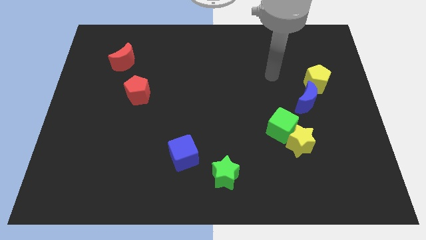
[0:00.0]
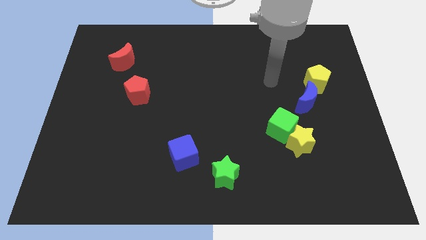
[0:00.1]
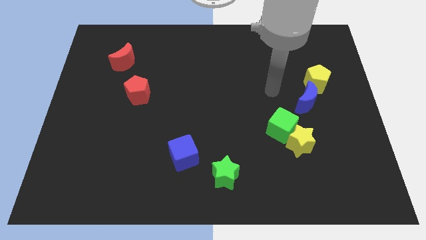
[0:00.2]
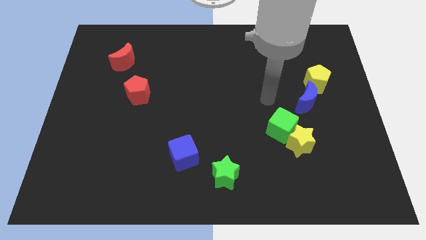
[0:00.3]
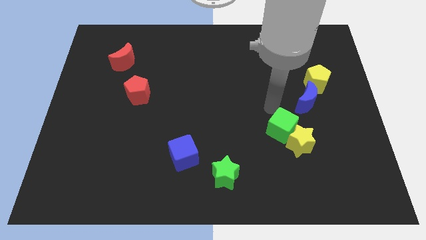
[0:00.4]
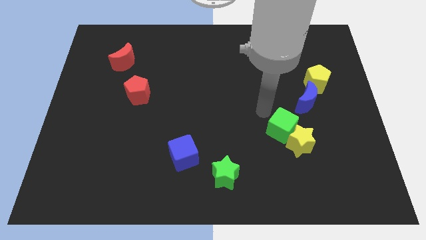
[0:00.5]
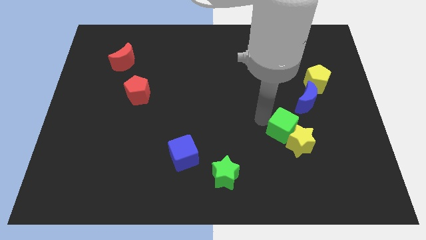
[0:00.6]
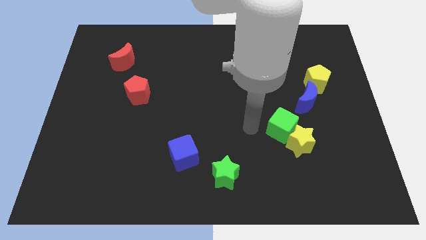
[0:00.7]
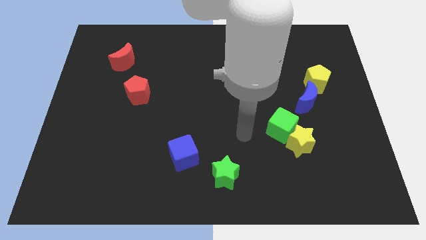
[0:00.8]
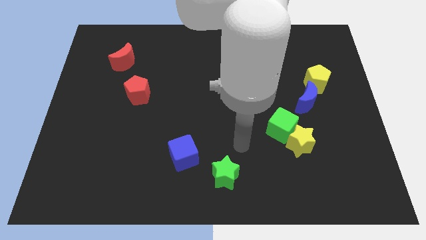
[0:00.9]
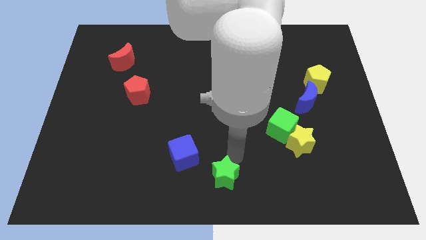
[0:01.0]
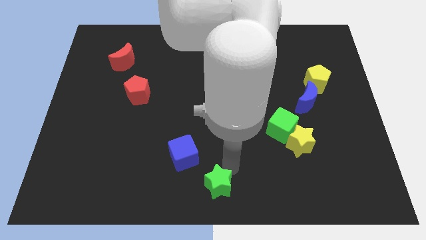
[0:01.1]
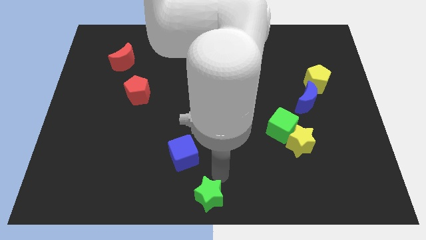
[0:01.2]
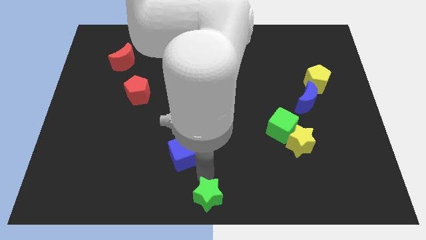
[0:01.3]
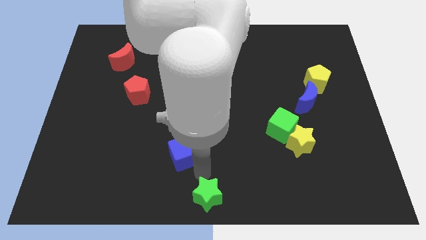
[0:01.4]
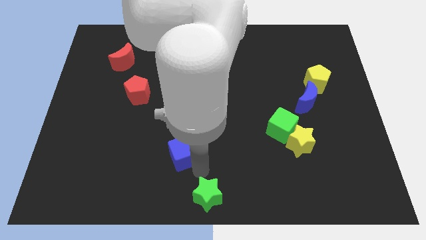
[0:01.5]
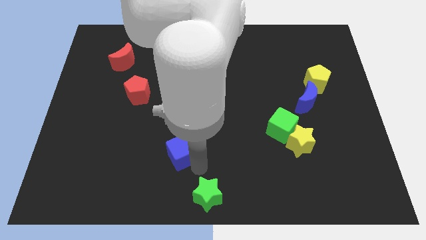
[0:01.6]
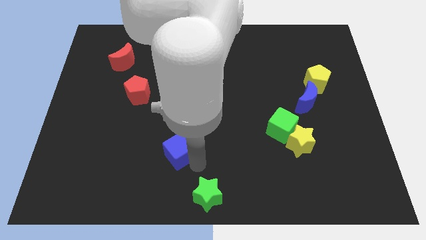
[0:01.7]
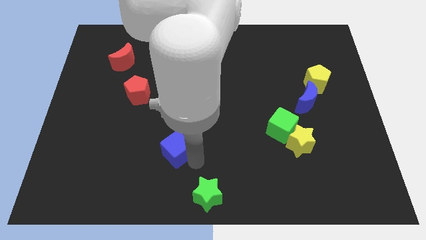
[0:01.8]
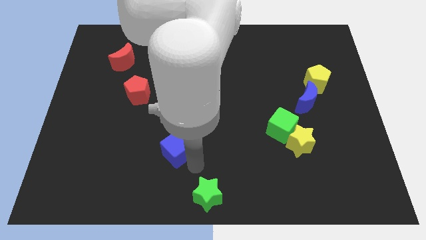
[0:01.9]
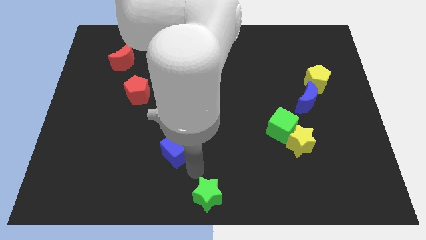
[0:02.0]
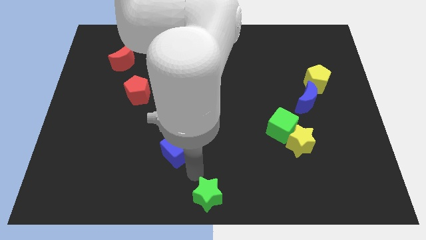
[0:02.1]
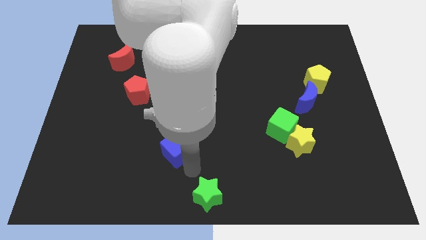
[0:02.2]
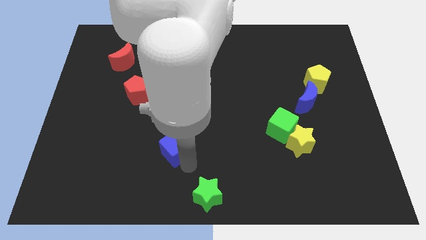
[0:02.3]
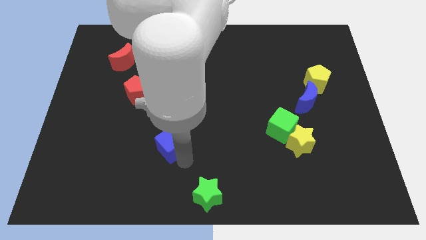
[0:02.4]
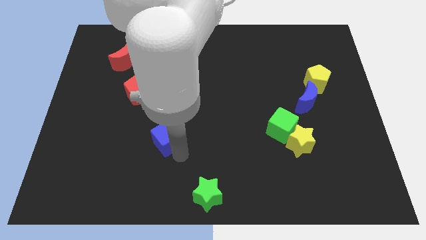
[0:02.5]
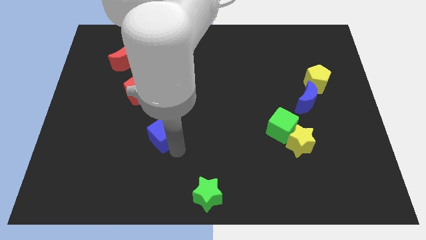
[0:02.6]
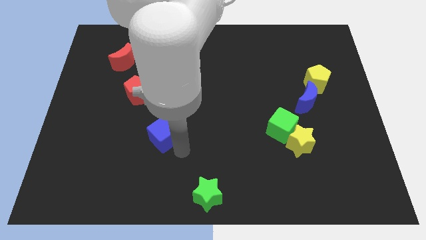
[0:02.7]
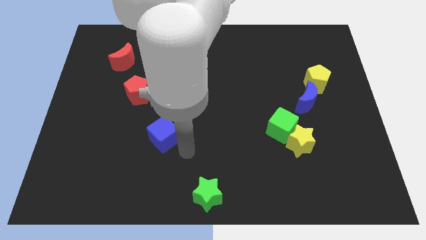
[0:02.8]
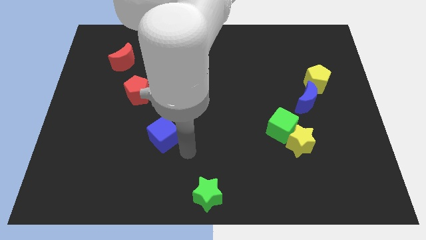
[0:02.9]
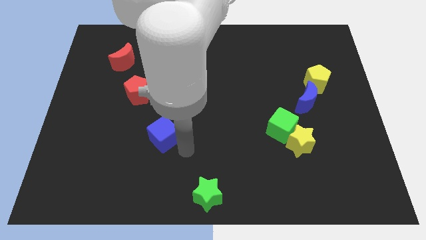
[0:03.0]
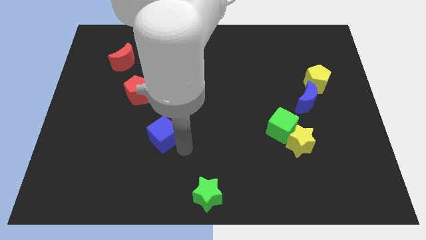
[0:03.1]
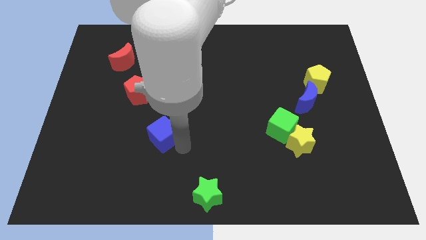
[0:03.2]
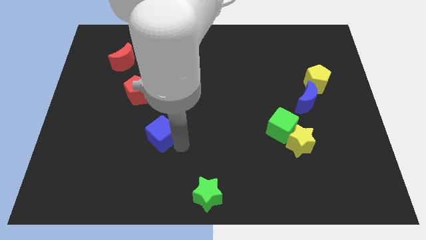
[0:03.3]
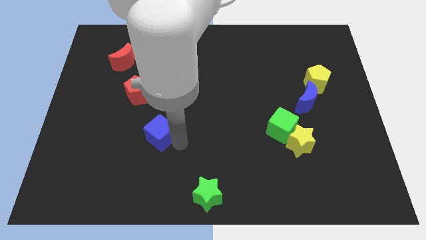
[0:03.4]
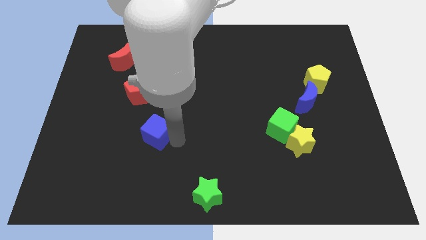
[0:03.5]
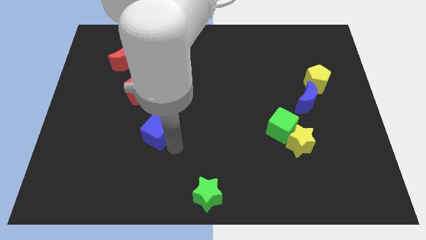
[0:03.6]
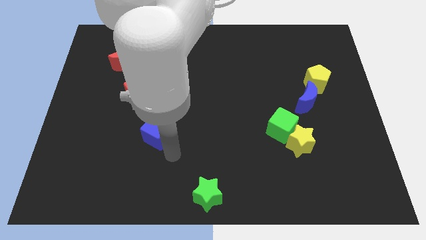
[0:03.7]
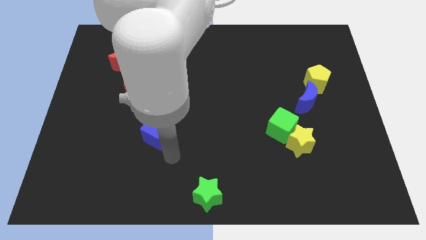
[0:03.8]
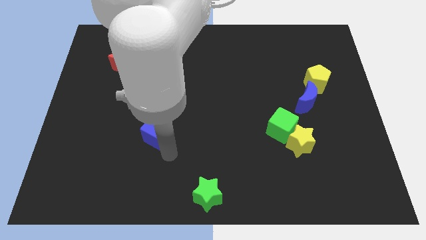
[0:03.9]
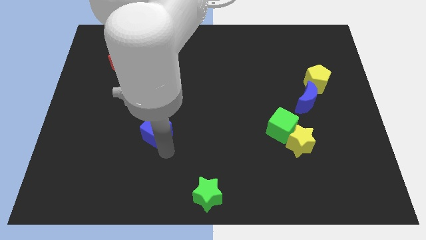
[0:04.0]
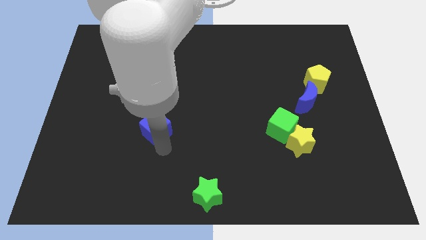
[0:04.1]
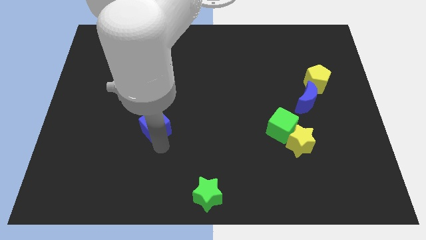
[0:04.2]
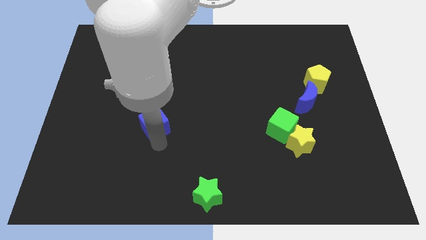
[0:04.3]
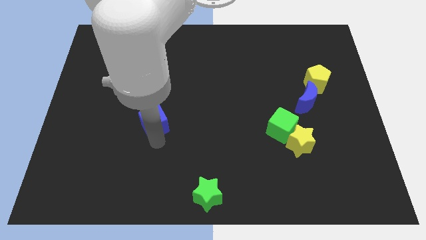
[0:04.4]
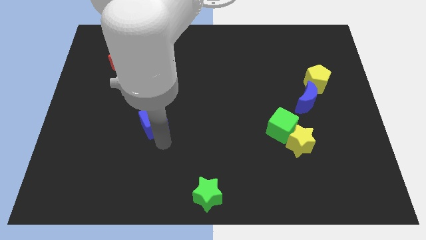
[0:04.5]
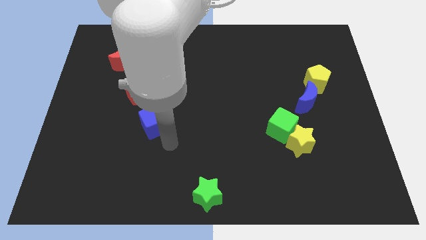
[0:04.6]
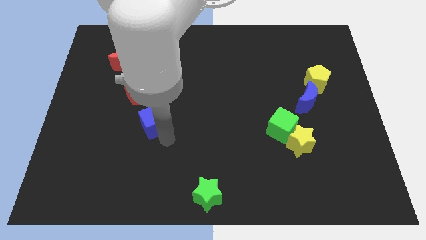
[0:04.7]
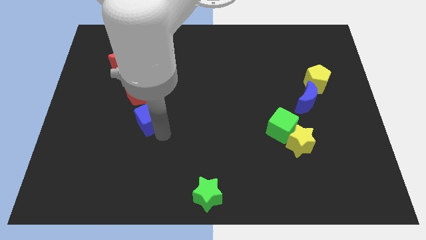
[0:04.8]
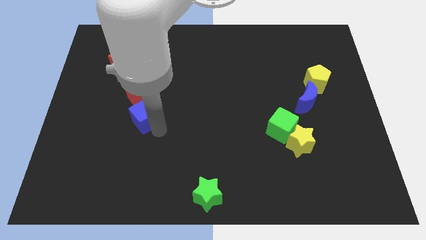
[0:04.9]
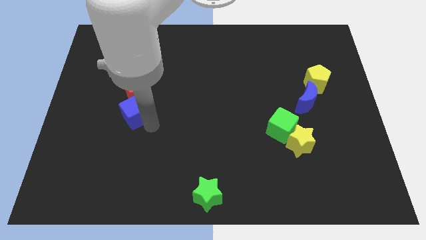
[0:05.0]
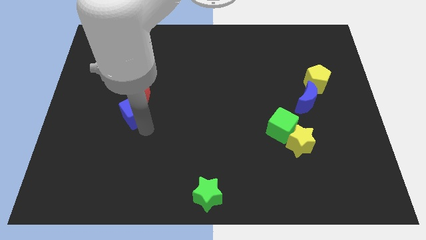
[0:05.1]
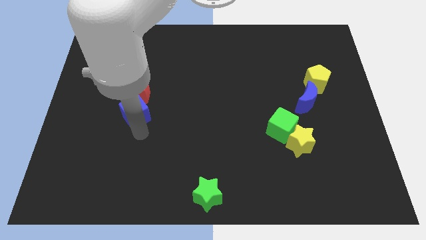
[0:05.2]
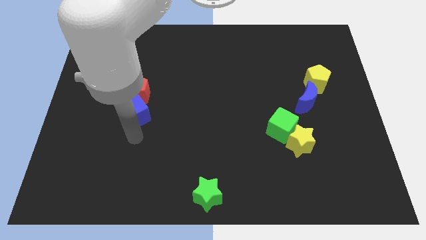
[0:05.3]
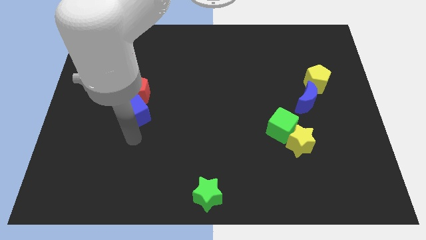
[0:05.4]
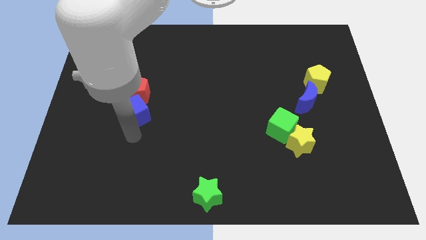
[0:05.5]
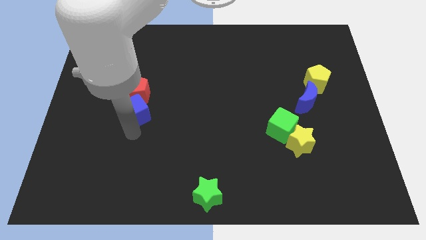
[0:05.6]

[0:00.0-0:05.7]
move the blue cube towards the red pentagon

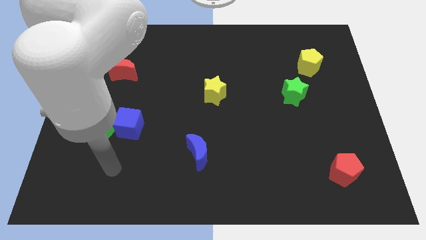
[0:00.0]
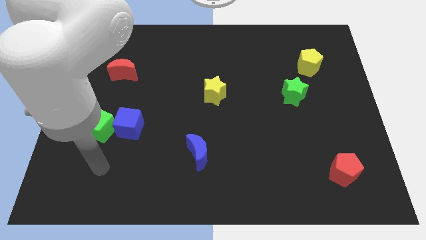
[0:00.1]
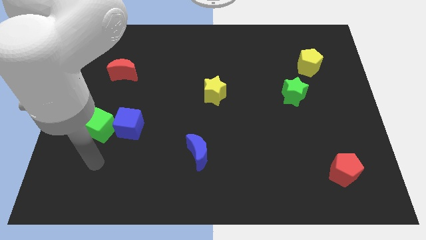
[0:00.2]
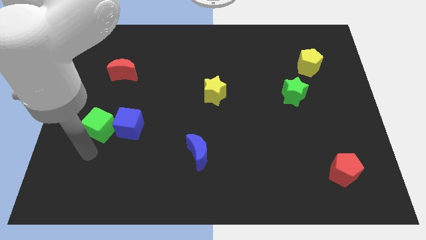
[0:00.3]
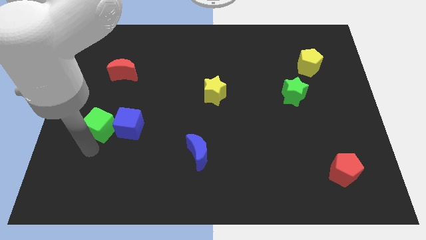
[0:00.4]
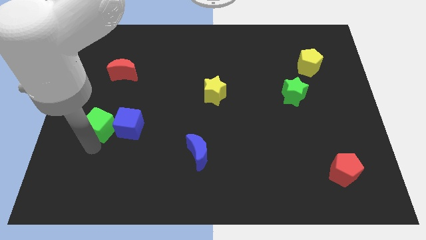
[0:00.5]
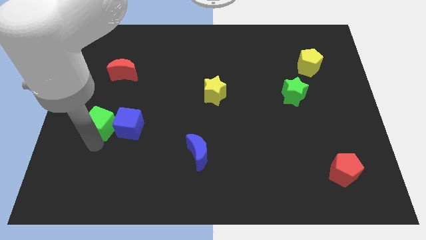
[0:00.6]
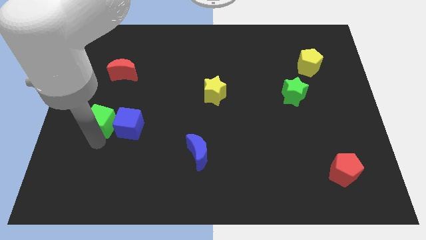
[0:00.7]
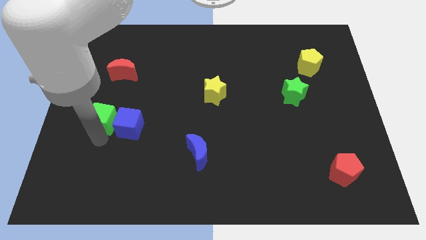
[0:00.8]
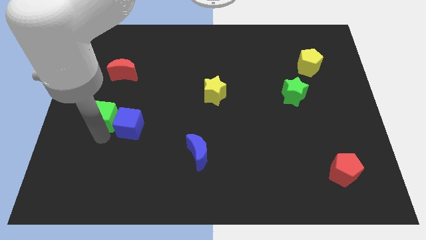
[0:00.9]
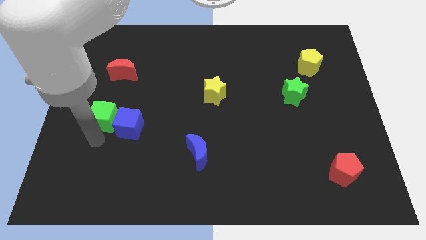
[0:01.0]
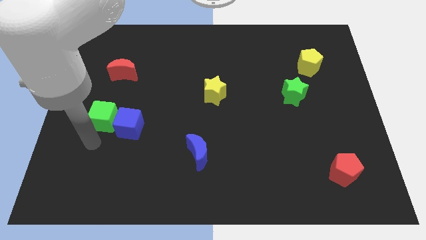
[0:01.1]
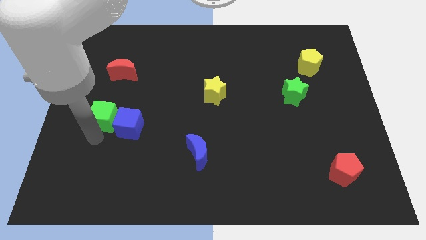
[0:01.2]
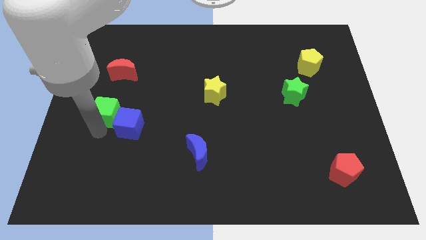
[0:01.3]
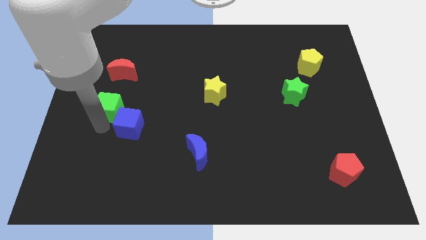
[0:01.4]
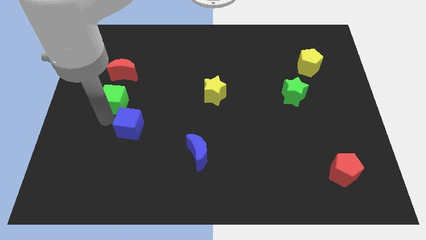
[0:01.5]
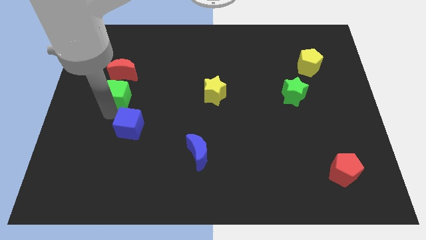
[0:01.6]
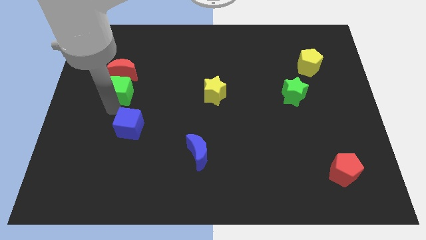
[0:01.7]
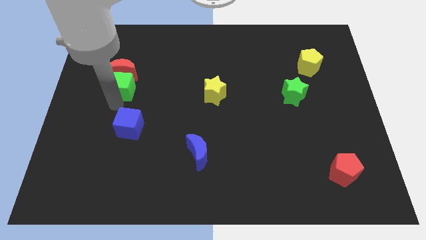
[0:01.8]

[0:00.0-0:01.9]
move the green cube towards the red moon

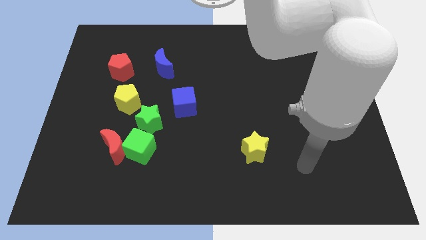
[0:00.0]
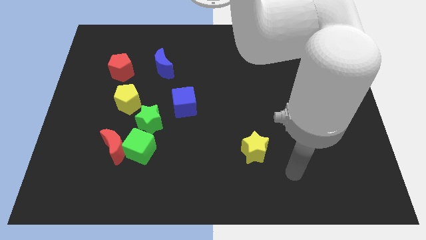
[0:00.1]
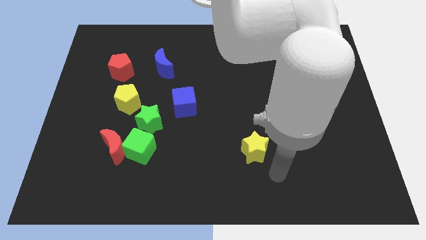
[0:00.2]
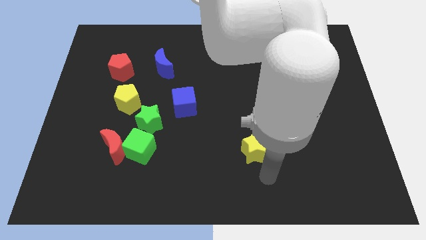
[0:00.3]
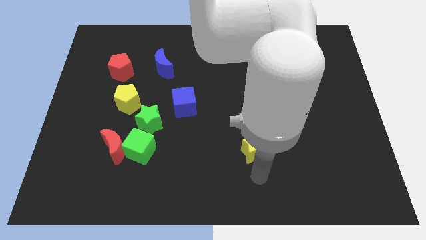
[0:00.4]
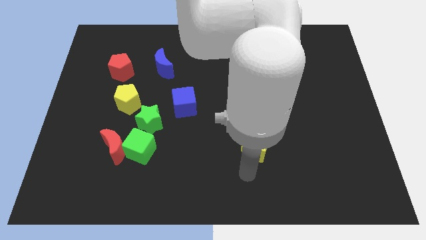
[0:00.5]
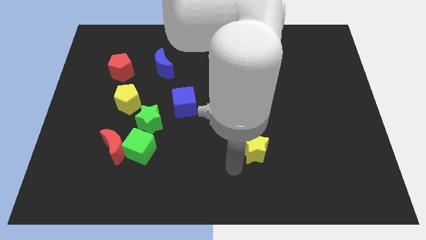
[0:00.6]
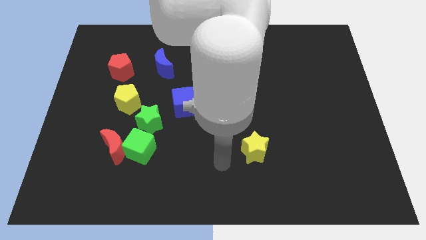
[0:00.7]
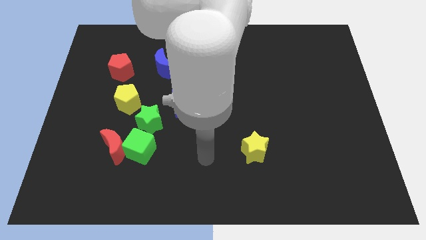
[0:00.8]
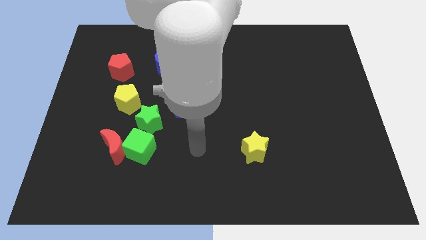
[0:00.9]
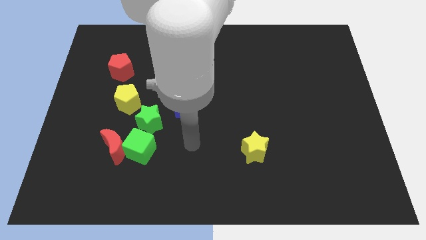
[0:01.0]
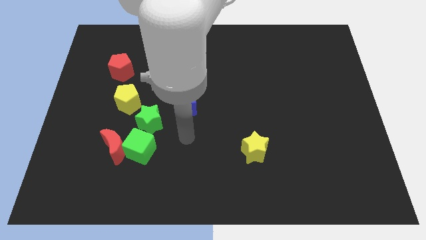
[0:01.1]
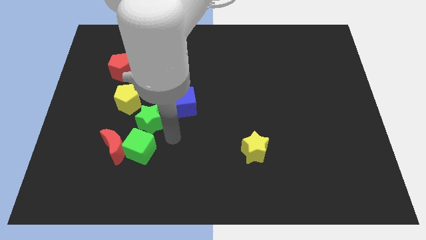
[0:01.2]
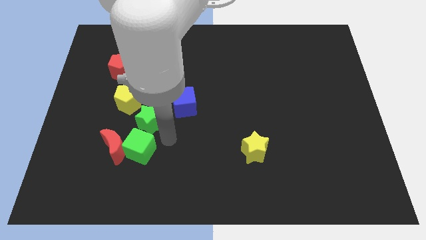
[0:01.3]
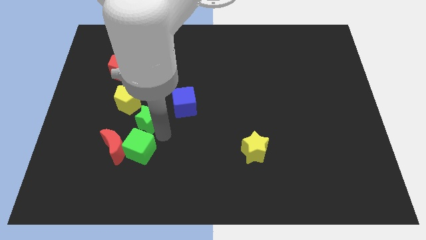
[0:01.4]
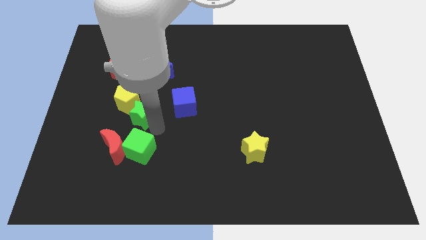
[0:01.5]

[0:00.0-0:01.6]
slide the green star to the yellow pentagon
